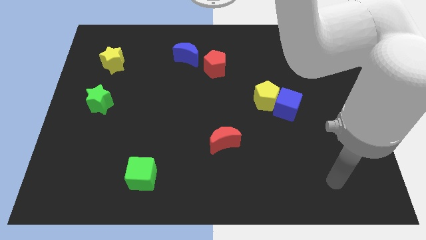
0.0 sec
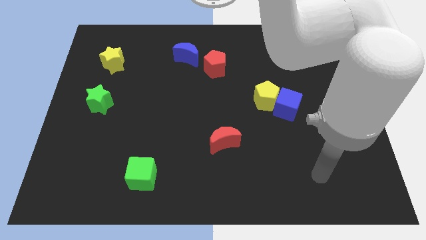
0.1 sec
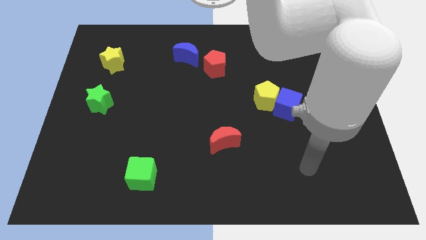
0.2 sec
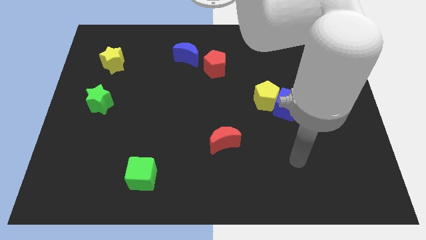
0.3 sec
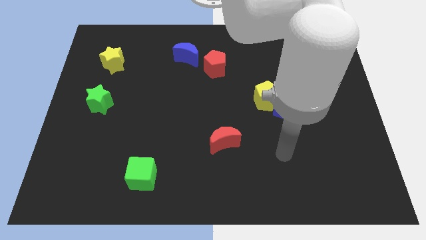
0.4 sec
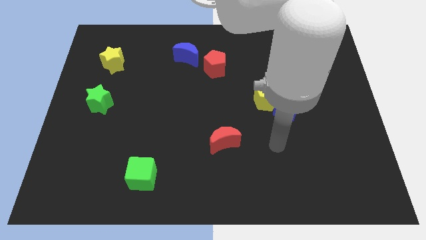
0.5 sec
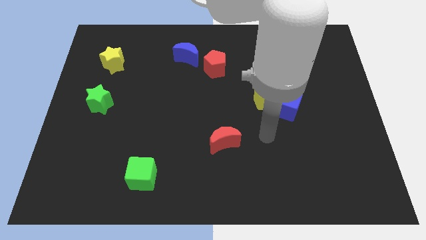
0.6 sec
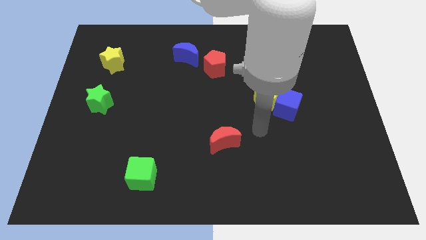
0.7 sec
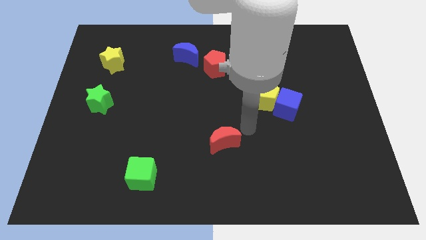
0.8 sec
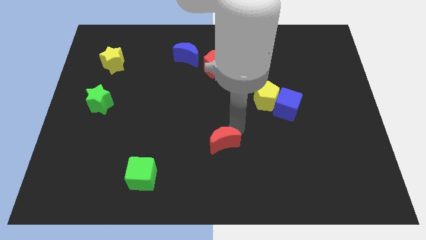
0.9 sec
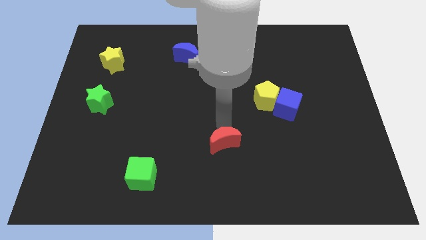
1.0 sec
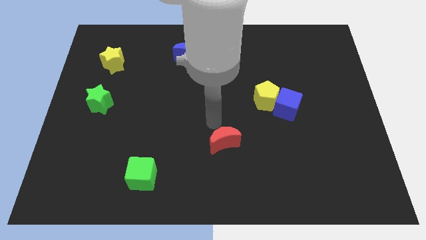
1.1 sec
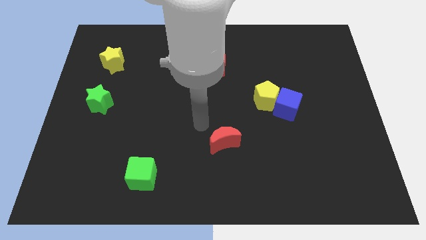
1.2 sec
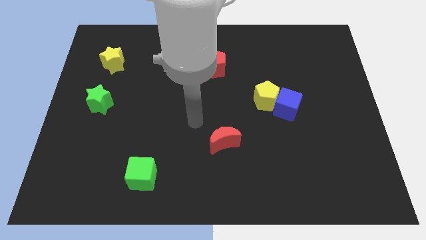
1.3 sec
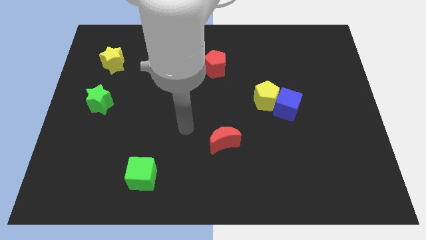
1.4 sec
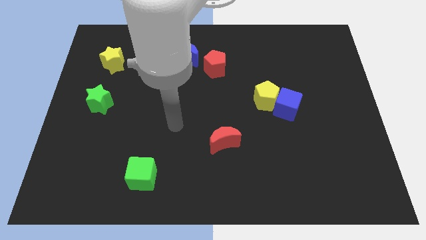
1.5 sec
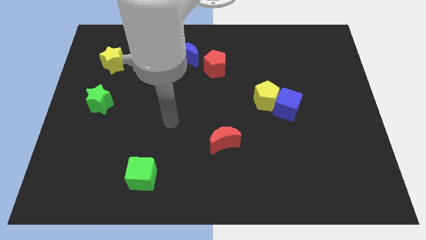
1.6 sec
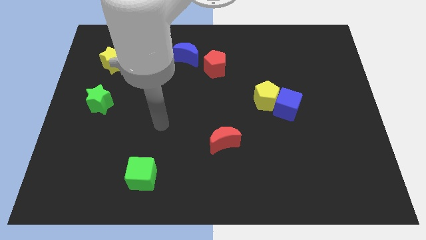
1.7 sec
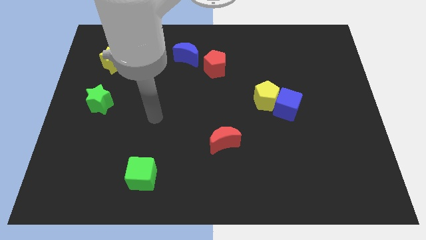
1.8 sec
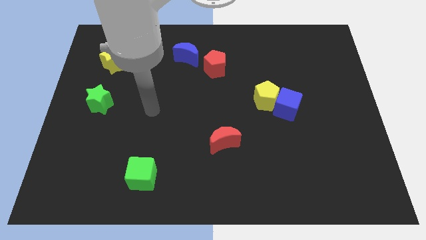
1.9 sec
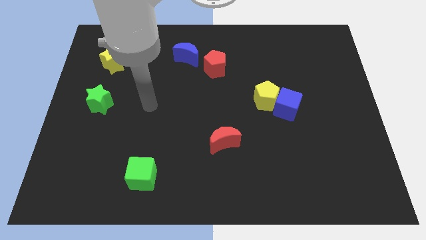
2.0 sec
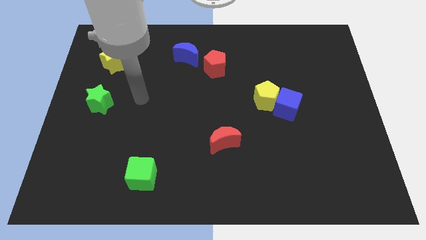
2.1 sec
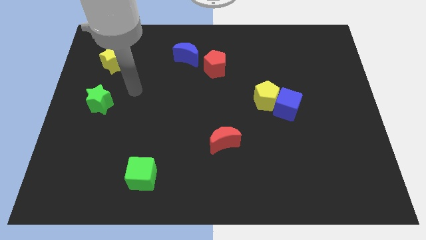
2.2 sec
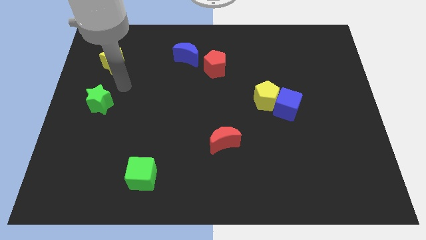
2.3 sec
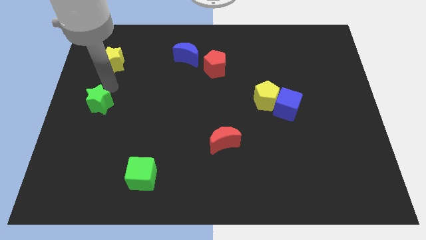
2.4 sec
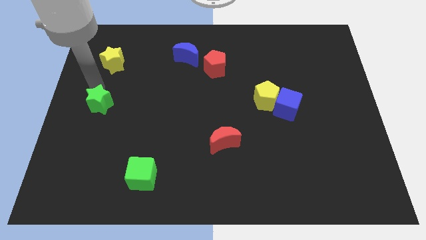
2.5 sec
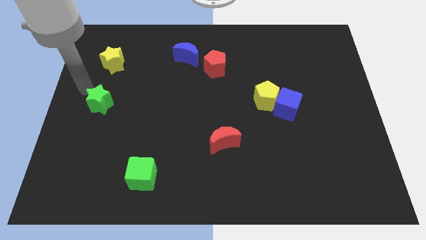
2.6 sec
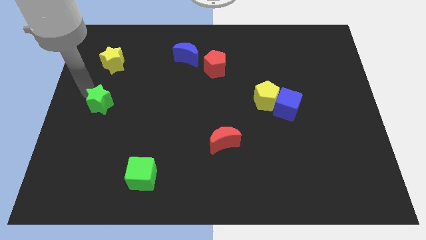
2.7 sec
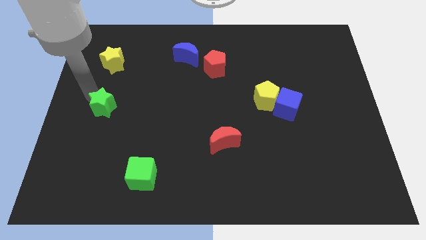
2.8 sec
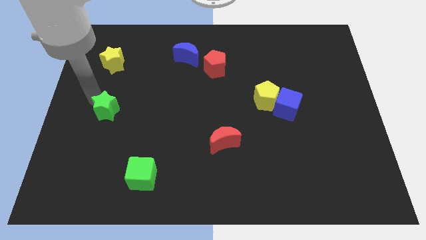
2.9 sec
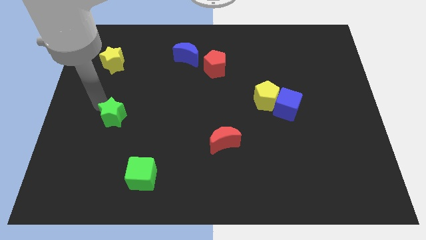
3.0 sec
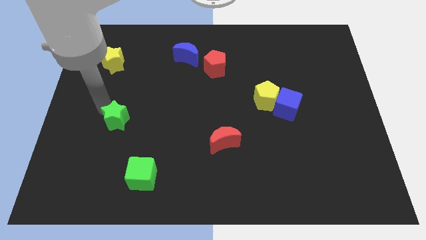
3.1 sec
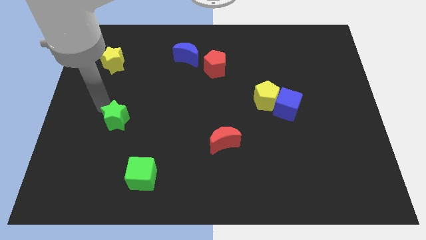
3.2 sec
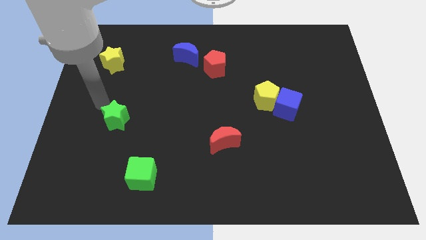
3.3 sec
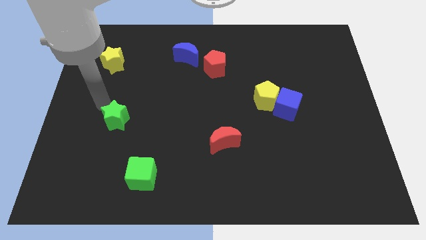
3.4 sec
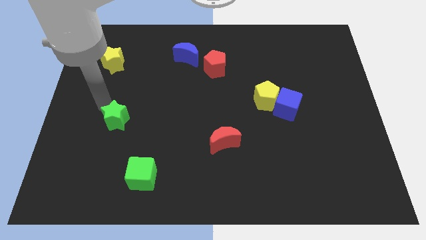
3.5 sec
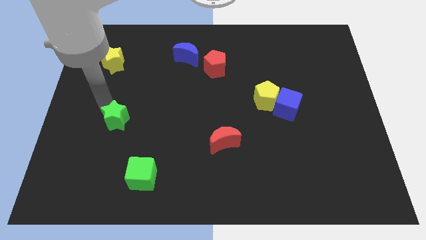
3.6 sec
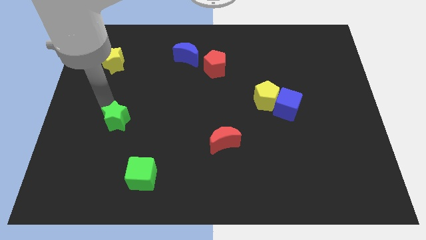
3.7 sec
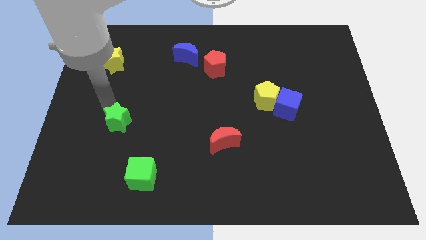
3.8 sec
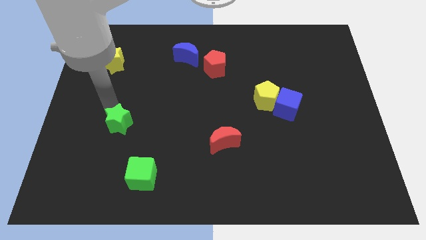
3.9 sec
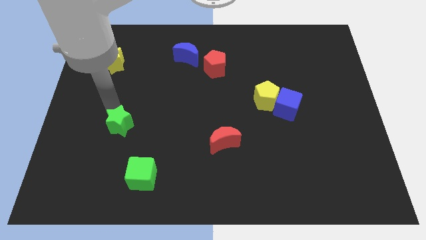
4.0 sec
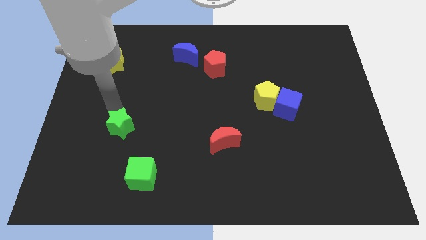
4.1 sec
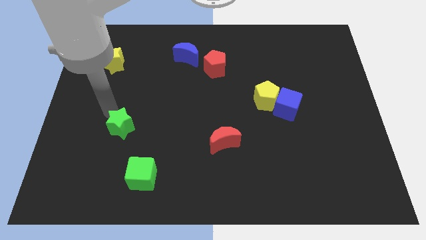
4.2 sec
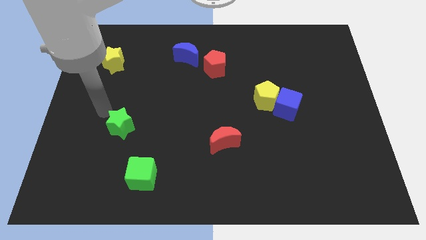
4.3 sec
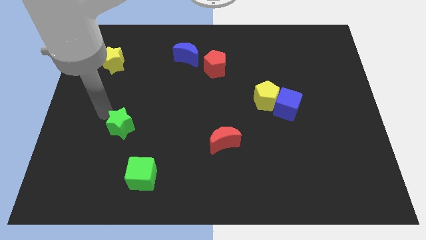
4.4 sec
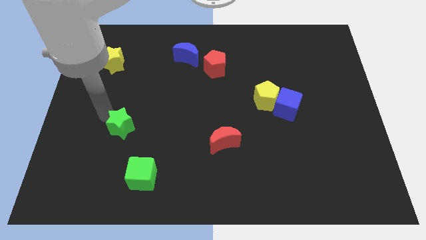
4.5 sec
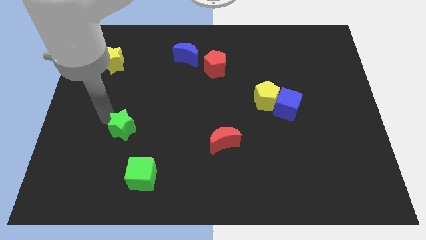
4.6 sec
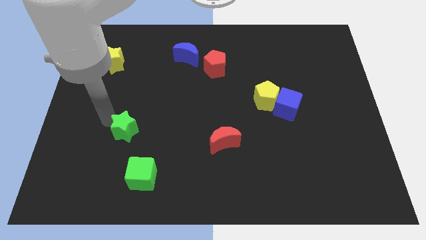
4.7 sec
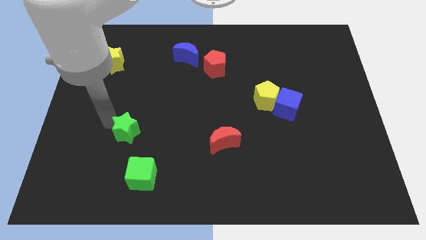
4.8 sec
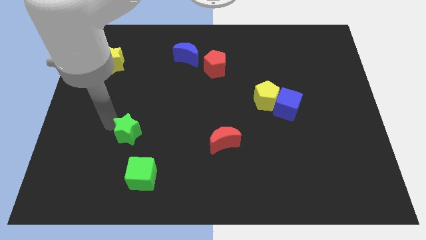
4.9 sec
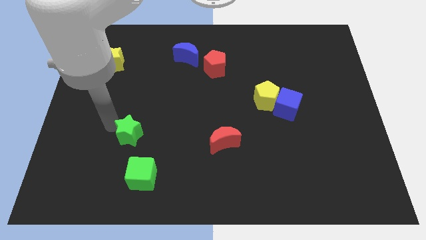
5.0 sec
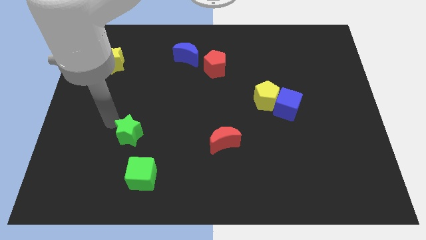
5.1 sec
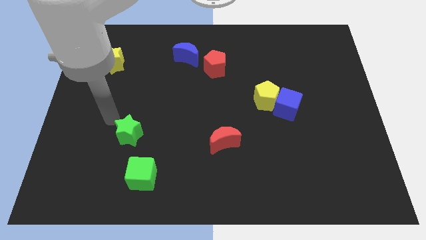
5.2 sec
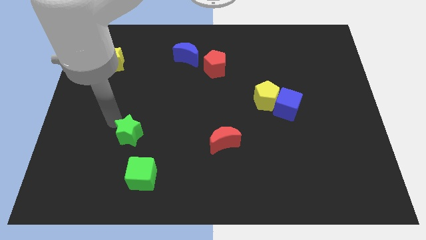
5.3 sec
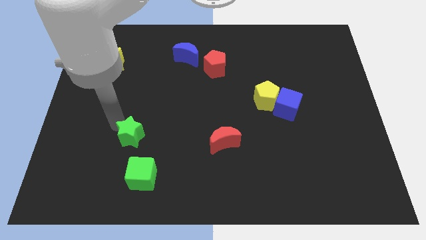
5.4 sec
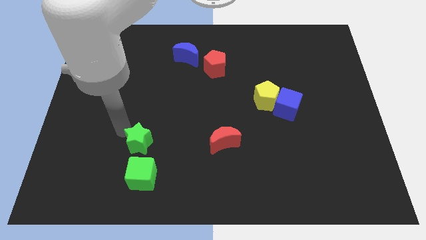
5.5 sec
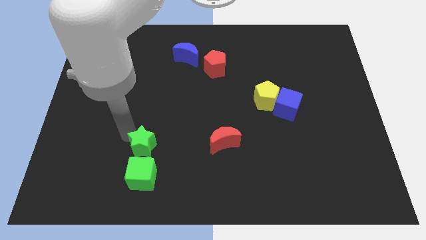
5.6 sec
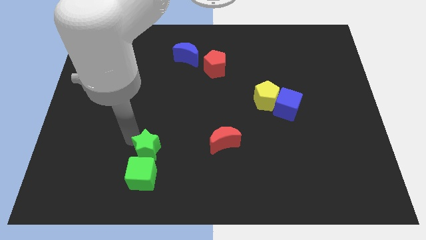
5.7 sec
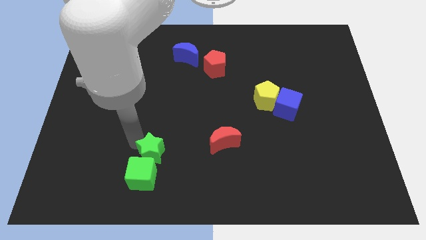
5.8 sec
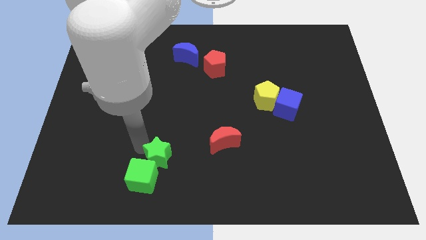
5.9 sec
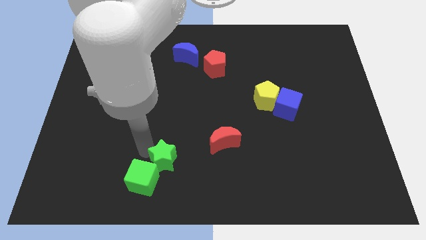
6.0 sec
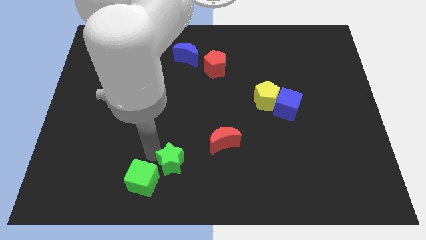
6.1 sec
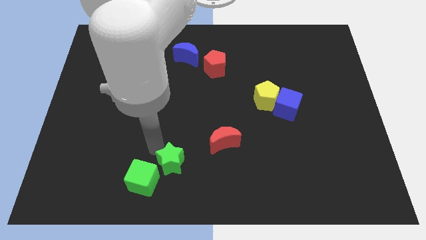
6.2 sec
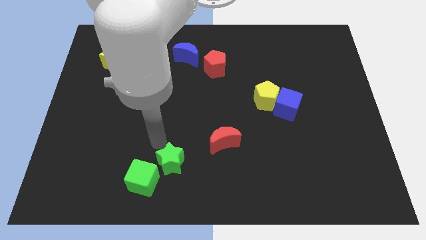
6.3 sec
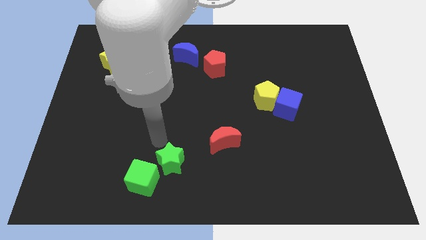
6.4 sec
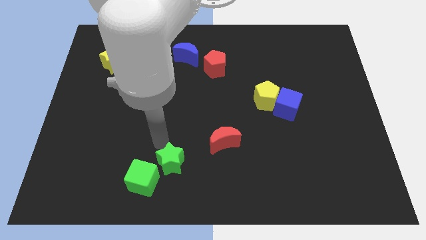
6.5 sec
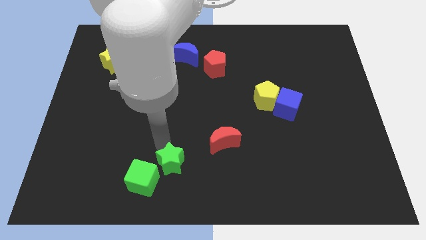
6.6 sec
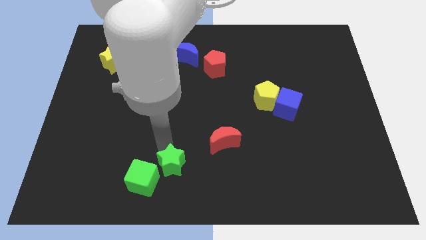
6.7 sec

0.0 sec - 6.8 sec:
slide the green star to the bottom side
